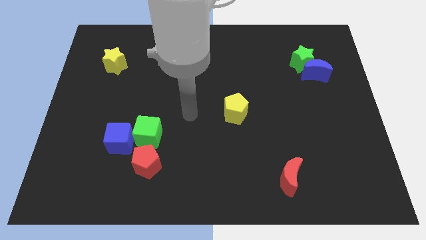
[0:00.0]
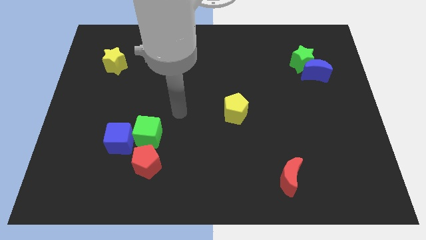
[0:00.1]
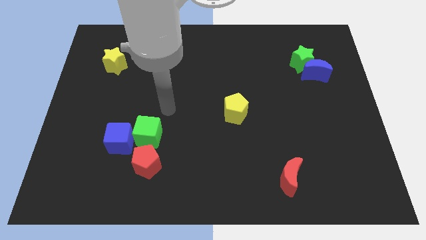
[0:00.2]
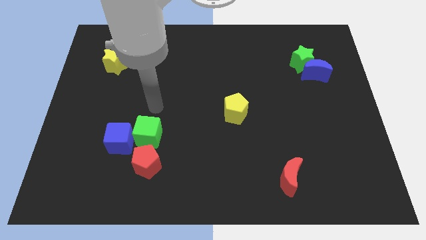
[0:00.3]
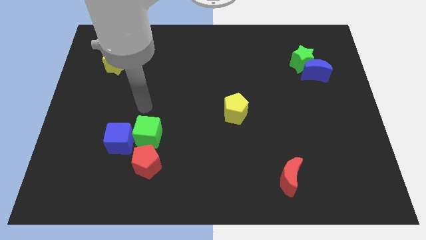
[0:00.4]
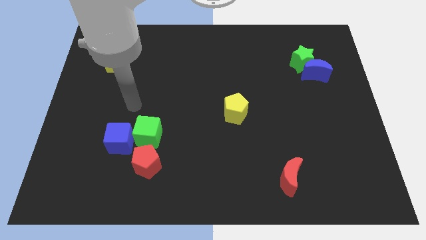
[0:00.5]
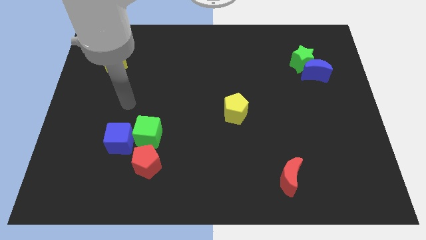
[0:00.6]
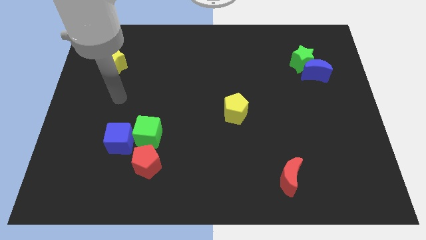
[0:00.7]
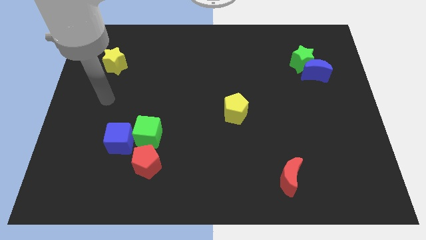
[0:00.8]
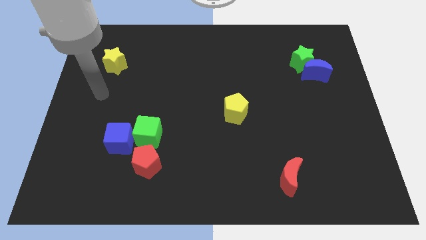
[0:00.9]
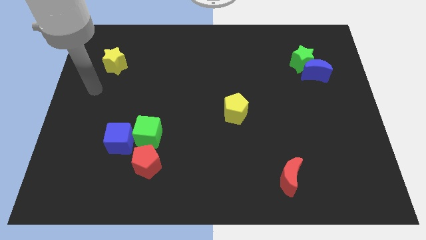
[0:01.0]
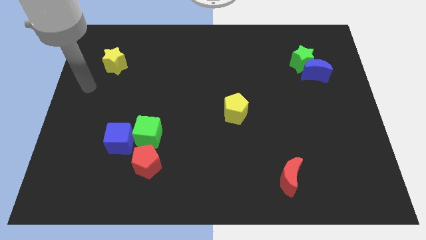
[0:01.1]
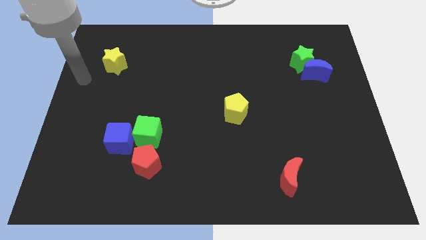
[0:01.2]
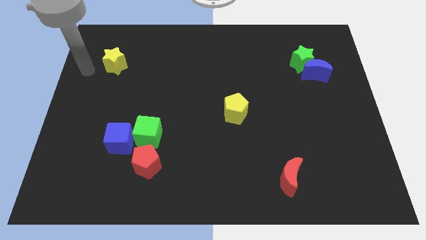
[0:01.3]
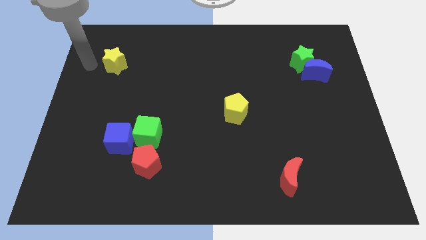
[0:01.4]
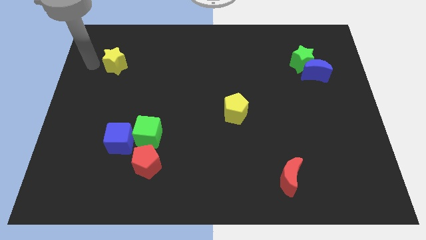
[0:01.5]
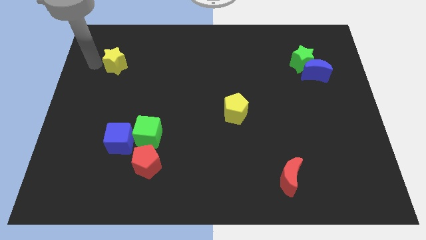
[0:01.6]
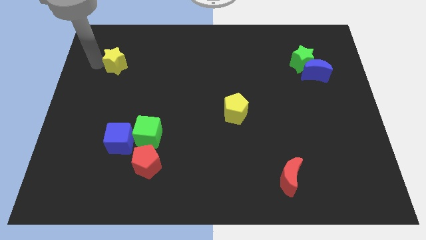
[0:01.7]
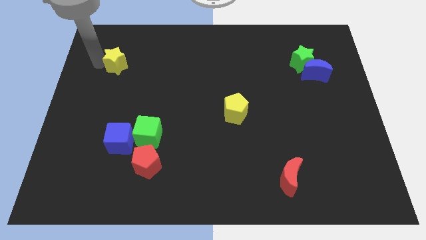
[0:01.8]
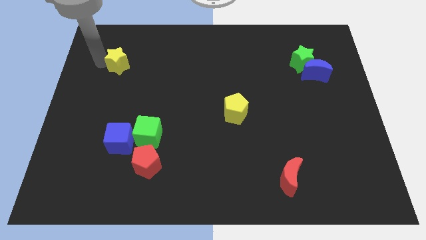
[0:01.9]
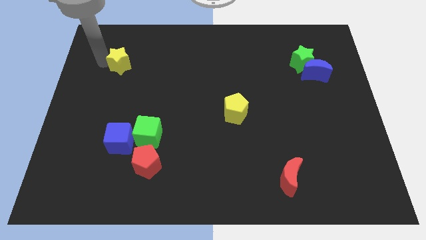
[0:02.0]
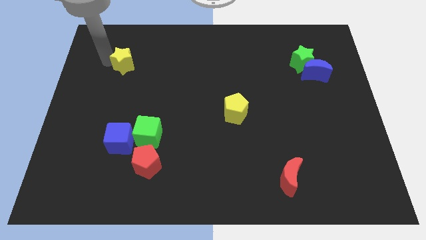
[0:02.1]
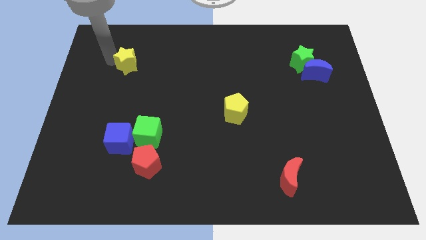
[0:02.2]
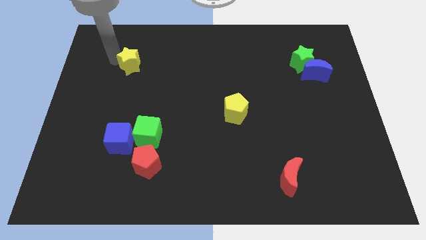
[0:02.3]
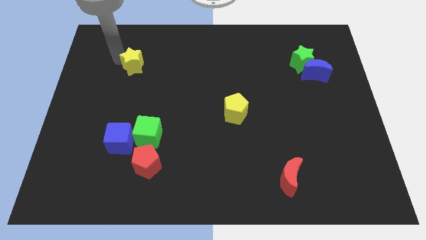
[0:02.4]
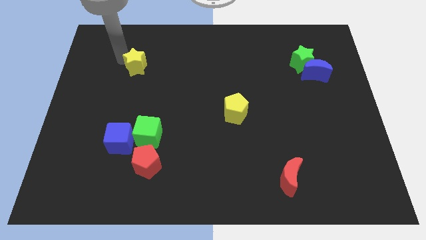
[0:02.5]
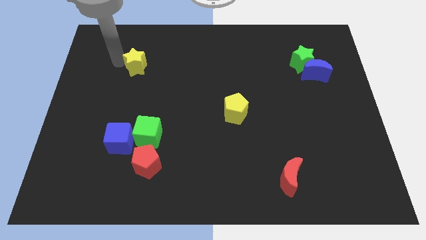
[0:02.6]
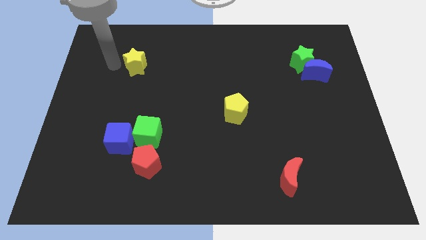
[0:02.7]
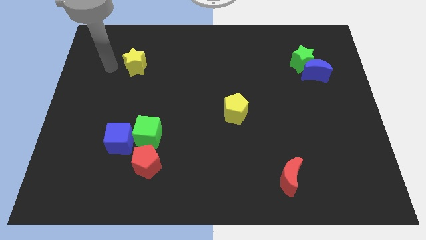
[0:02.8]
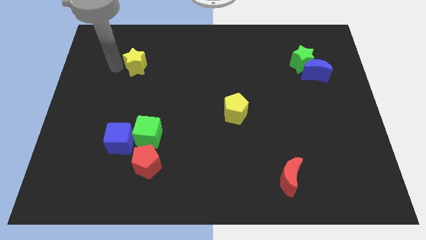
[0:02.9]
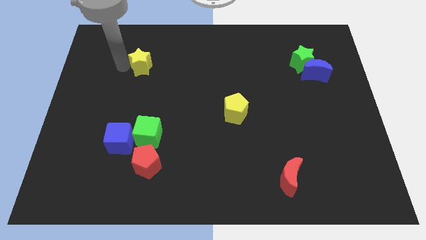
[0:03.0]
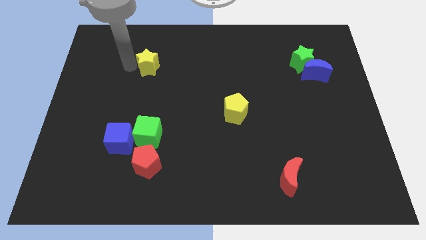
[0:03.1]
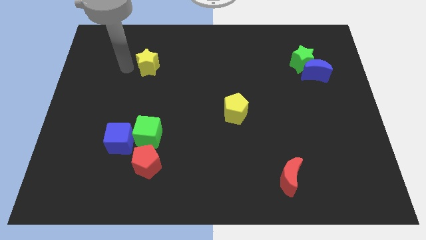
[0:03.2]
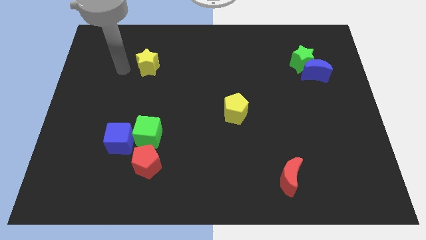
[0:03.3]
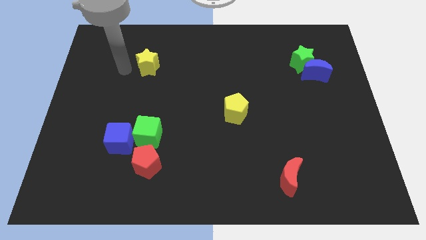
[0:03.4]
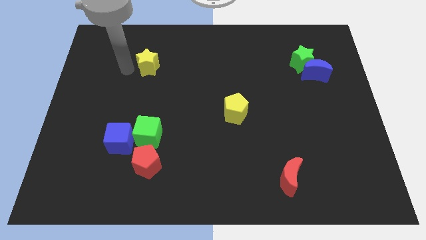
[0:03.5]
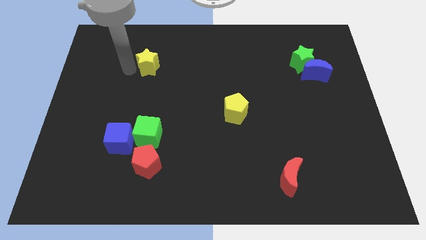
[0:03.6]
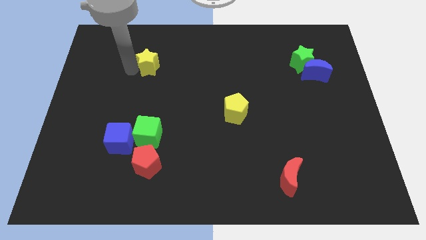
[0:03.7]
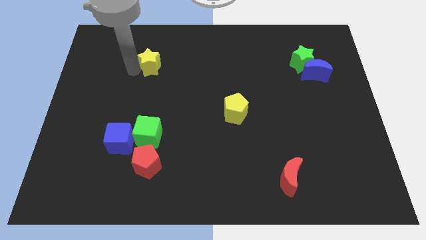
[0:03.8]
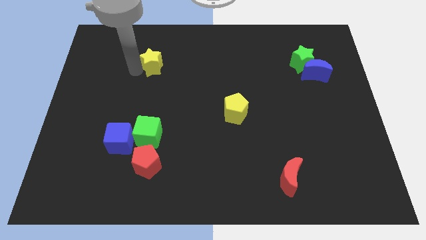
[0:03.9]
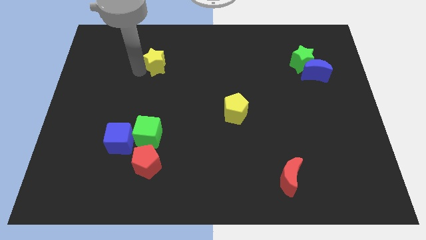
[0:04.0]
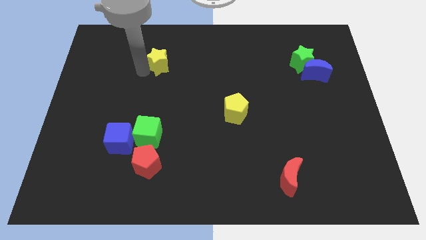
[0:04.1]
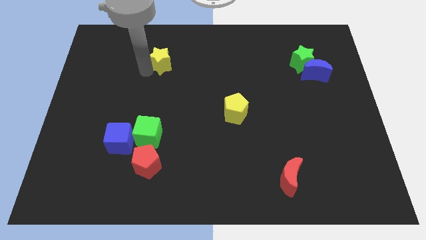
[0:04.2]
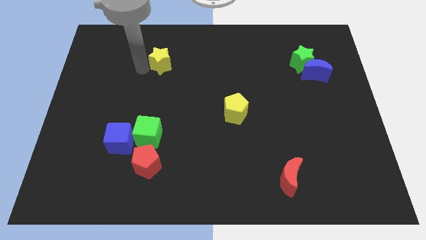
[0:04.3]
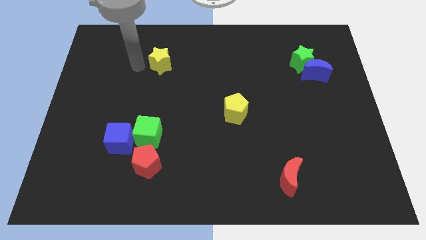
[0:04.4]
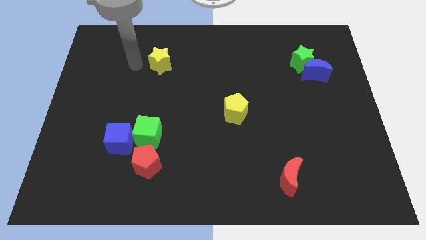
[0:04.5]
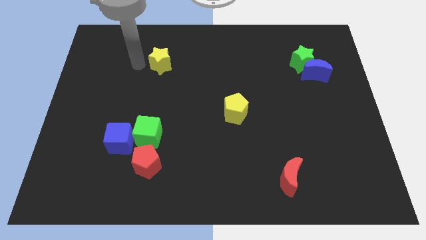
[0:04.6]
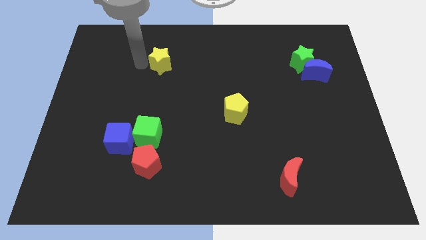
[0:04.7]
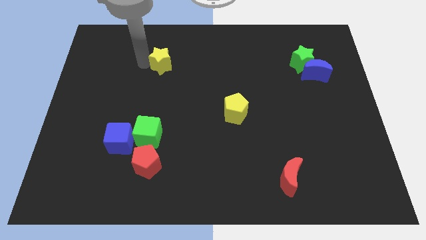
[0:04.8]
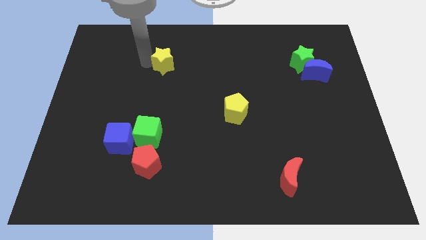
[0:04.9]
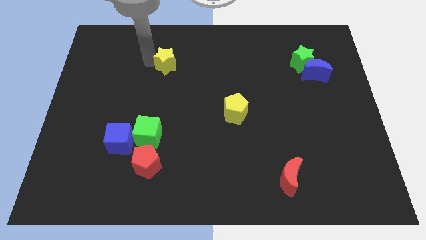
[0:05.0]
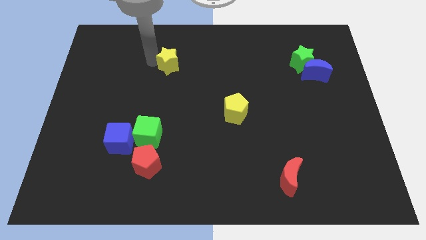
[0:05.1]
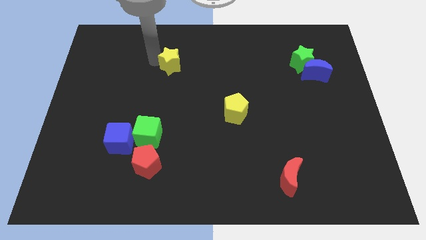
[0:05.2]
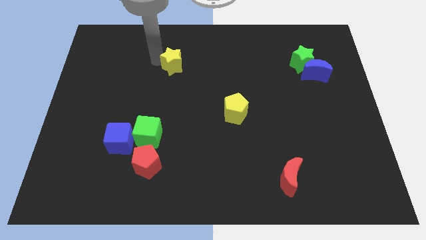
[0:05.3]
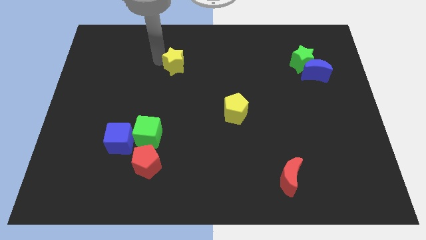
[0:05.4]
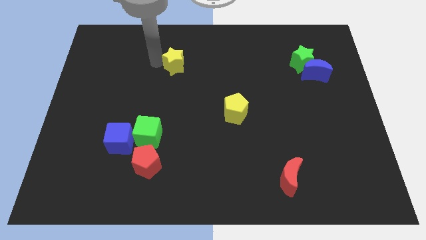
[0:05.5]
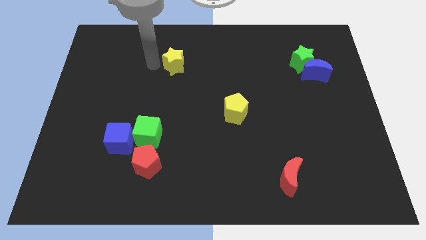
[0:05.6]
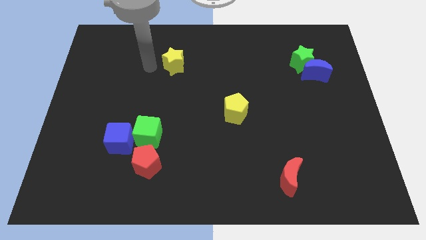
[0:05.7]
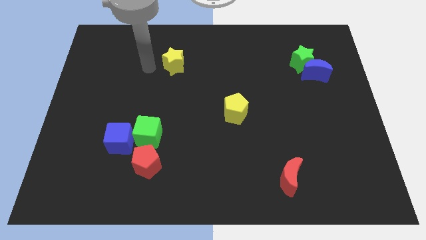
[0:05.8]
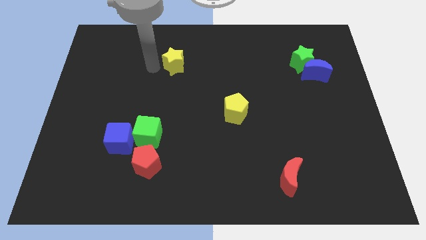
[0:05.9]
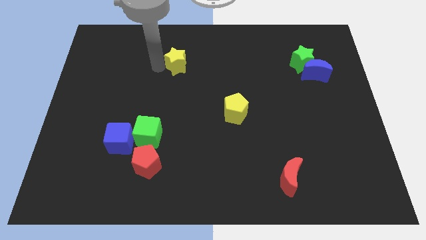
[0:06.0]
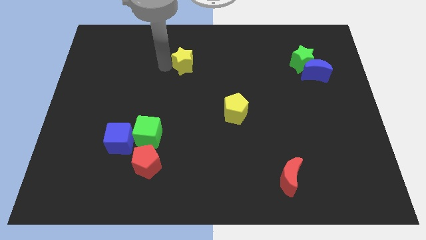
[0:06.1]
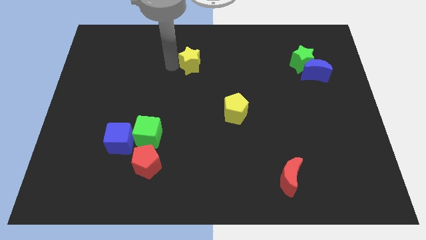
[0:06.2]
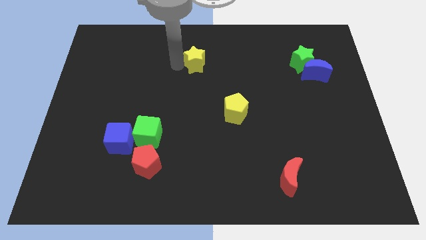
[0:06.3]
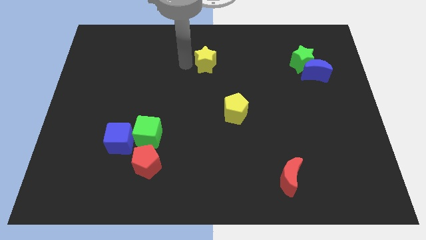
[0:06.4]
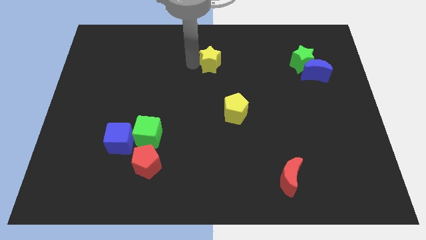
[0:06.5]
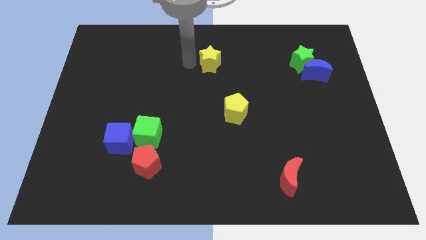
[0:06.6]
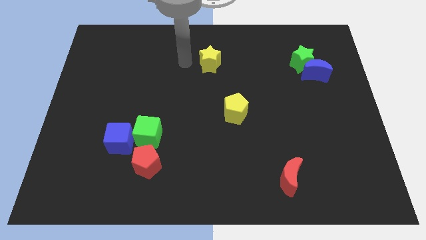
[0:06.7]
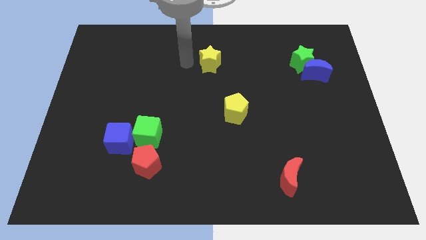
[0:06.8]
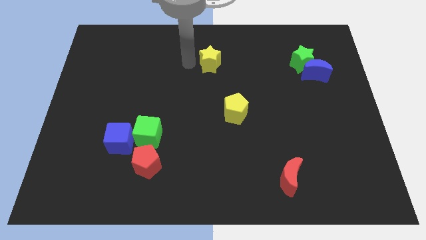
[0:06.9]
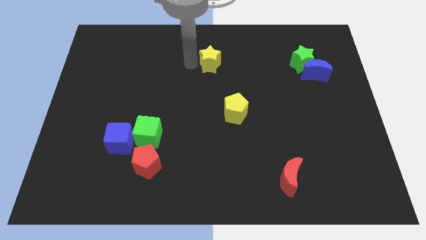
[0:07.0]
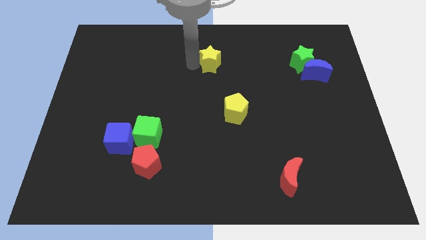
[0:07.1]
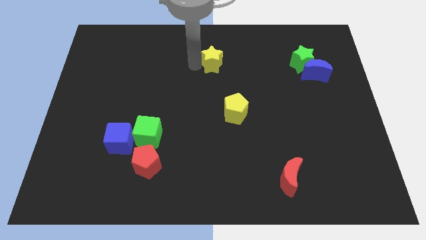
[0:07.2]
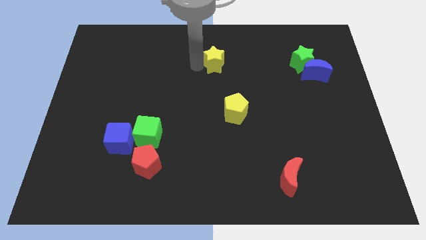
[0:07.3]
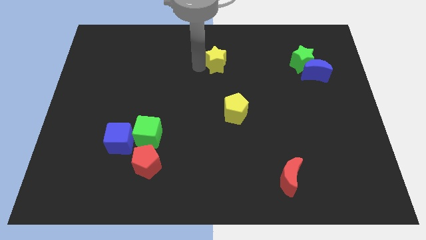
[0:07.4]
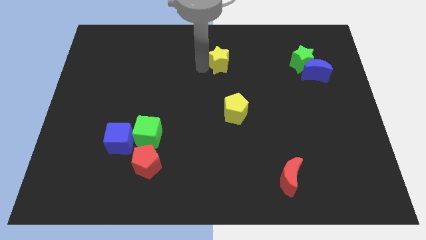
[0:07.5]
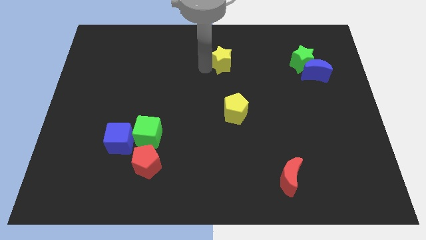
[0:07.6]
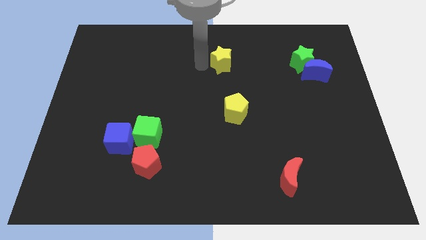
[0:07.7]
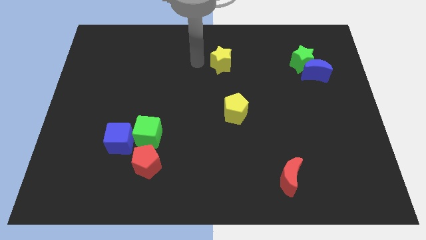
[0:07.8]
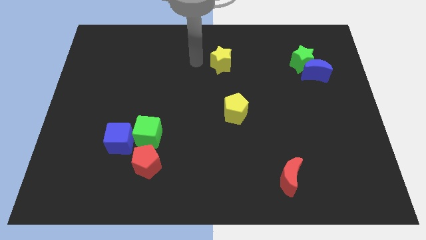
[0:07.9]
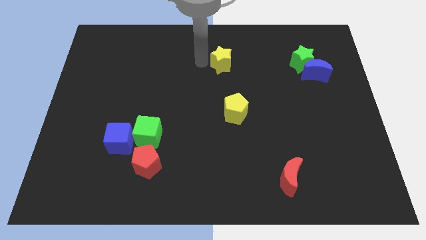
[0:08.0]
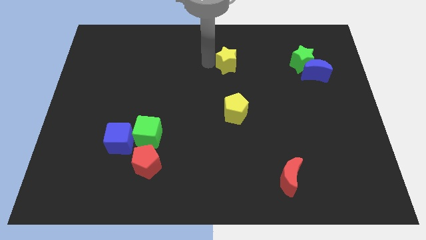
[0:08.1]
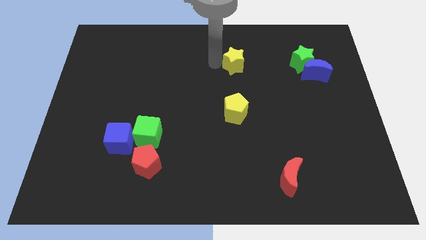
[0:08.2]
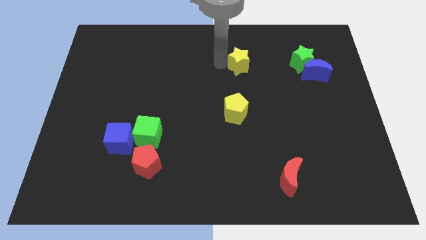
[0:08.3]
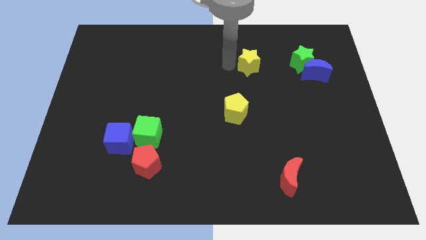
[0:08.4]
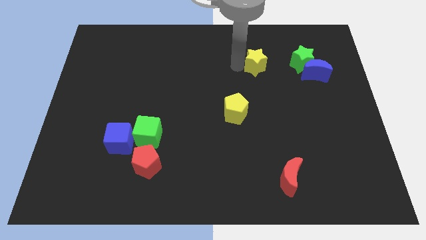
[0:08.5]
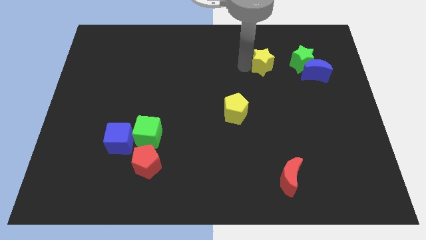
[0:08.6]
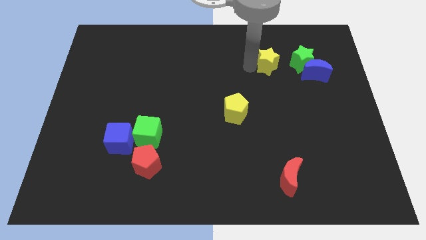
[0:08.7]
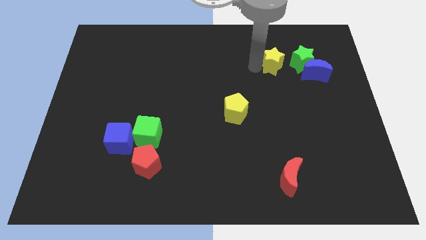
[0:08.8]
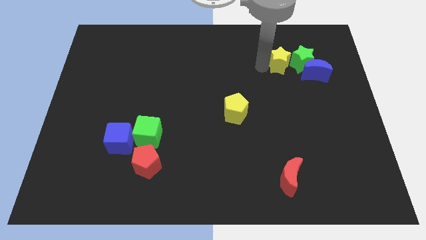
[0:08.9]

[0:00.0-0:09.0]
slide the yellow star to the top left of the blue moon
